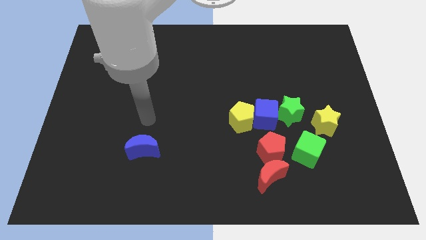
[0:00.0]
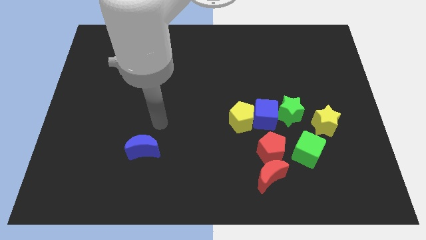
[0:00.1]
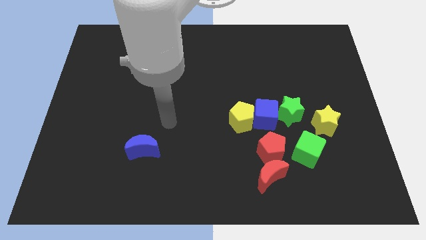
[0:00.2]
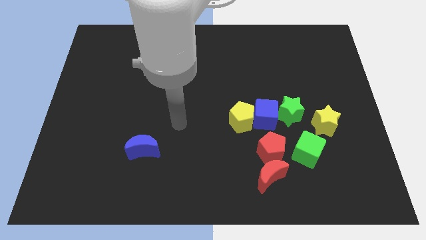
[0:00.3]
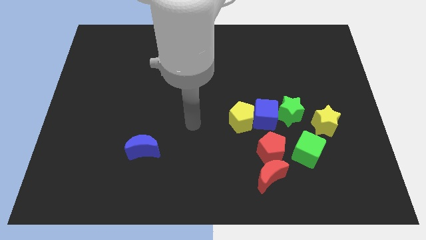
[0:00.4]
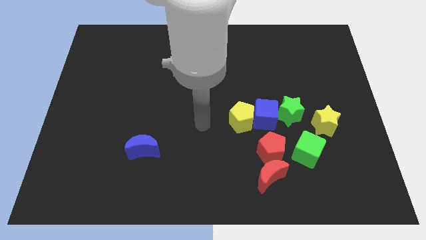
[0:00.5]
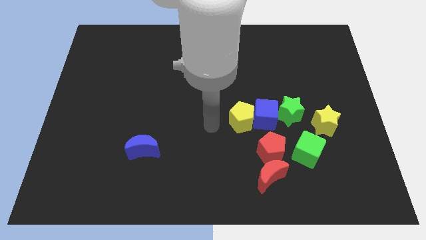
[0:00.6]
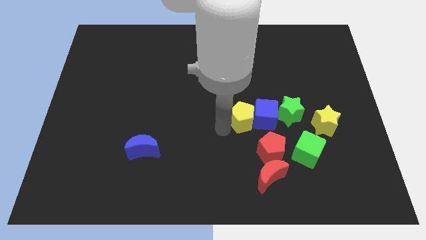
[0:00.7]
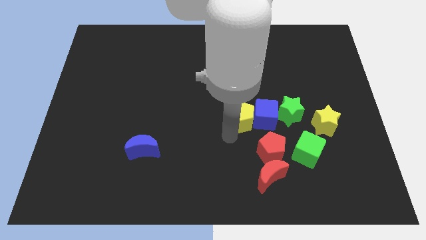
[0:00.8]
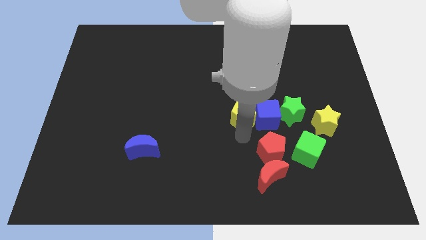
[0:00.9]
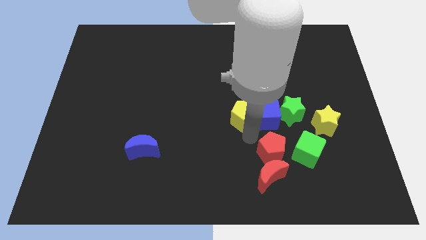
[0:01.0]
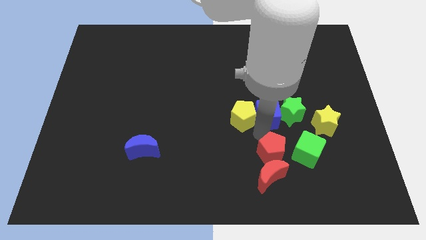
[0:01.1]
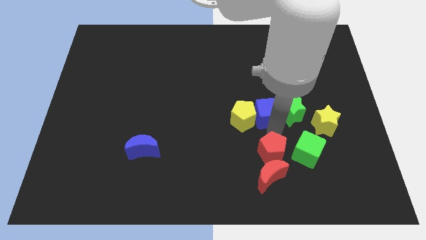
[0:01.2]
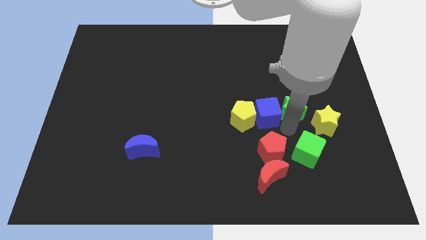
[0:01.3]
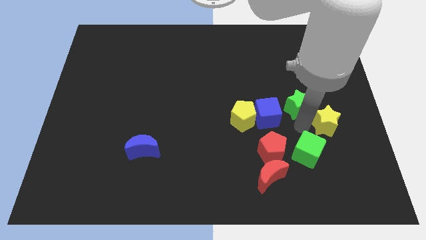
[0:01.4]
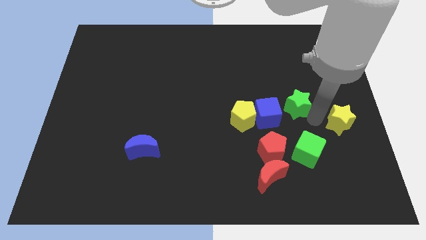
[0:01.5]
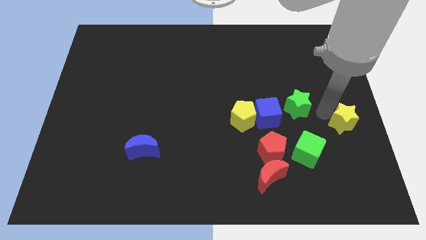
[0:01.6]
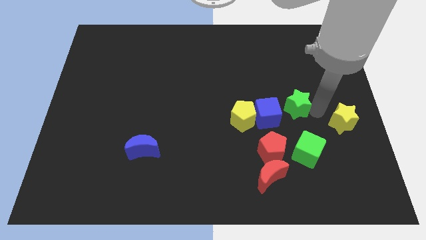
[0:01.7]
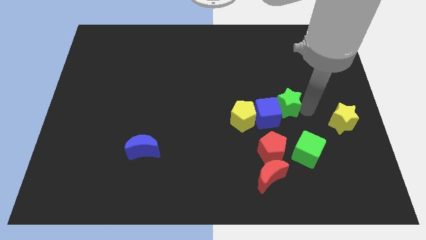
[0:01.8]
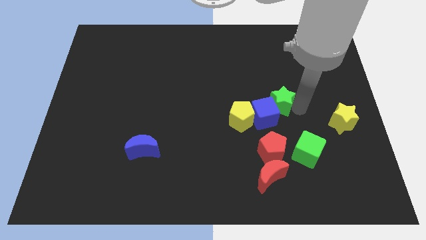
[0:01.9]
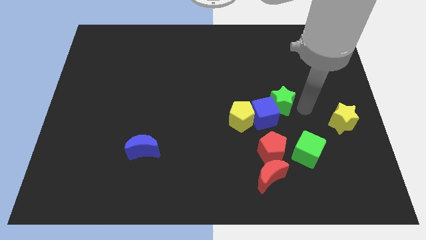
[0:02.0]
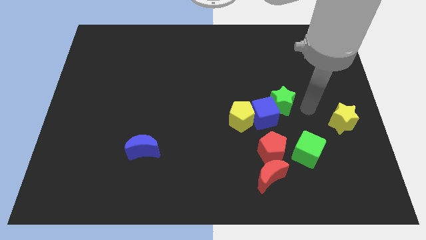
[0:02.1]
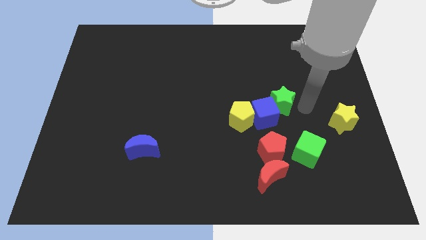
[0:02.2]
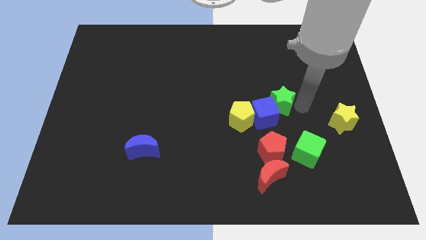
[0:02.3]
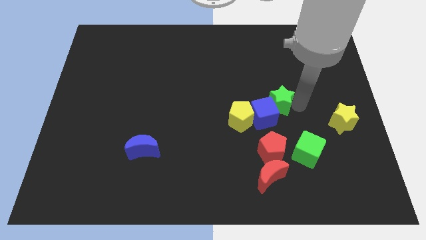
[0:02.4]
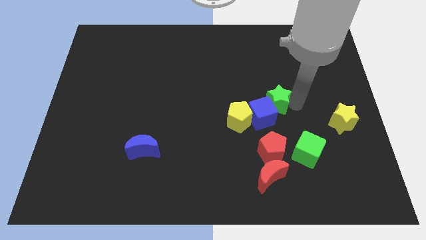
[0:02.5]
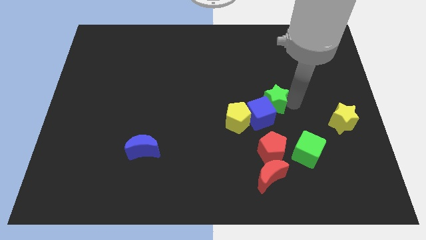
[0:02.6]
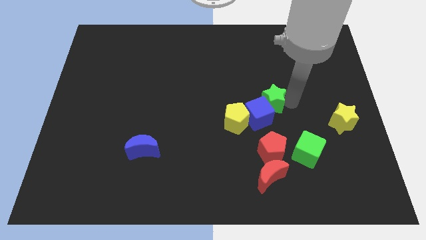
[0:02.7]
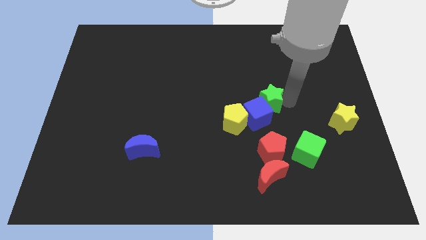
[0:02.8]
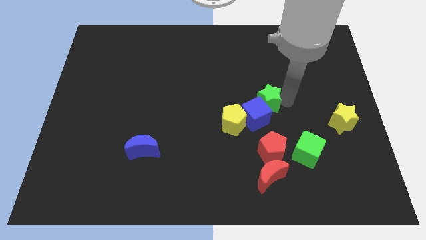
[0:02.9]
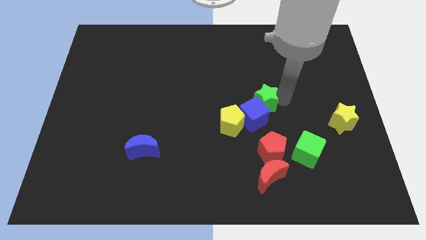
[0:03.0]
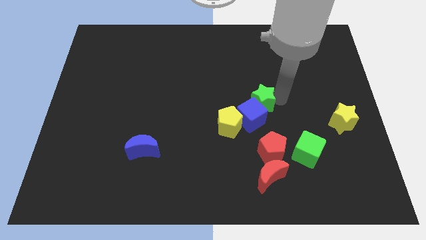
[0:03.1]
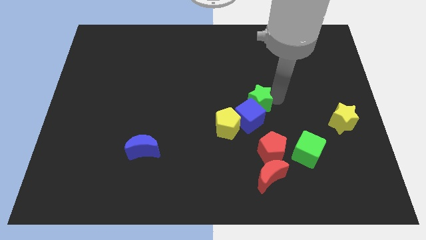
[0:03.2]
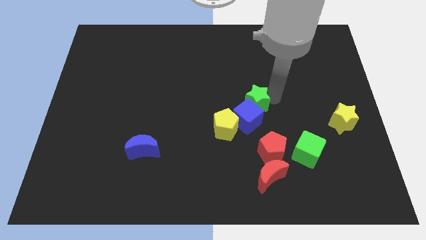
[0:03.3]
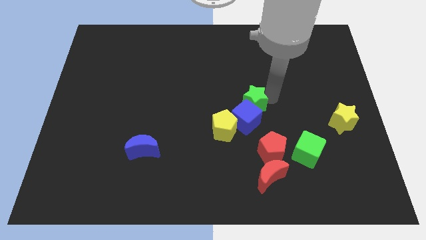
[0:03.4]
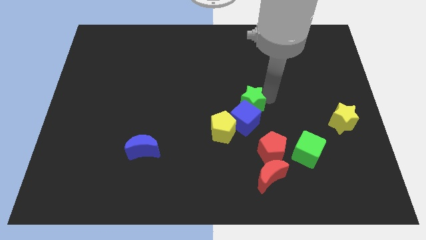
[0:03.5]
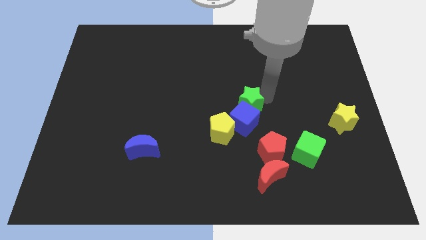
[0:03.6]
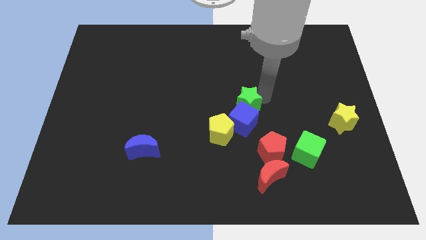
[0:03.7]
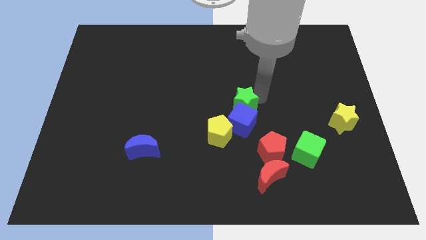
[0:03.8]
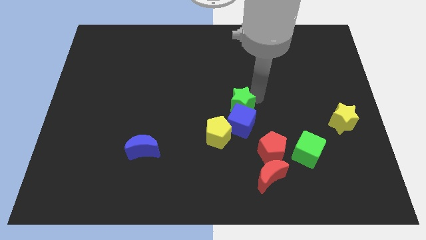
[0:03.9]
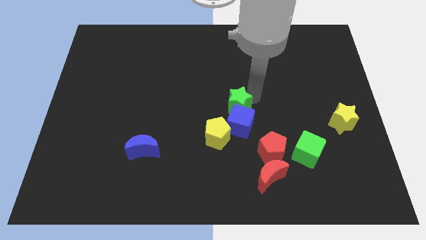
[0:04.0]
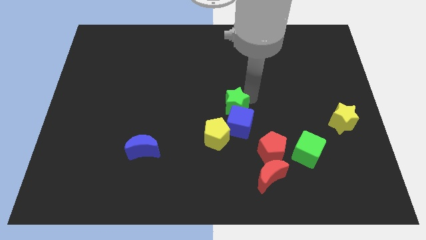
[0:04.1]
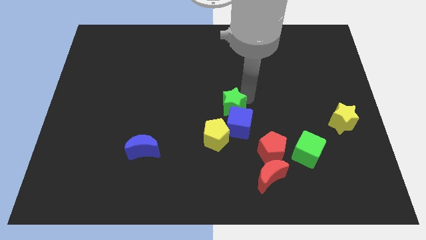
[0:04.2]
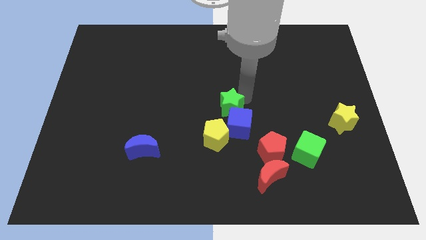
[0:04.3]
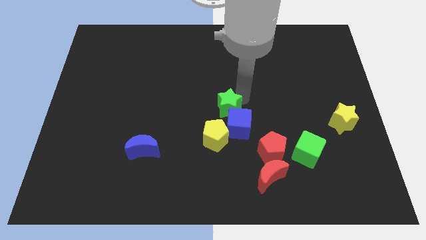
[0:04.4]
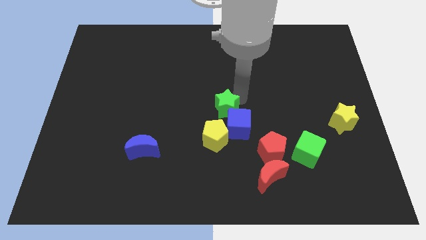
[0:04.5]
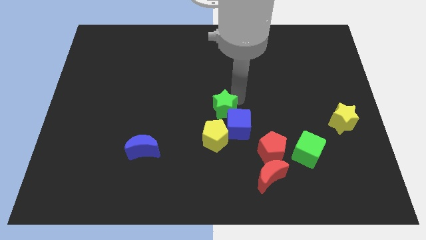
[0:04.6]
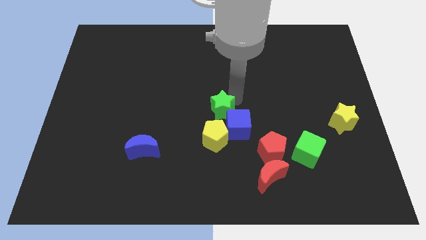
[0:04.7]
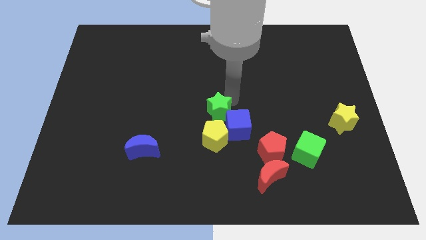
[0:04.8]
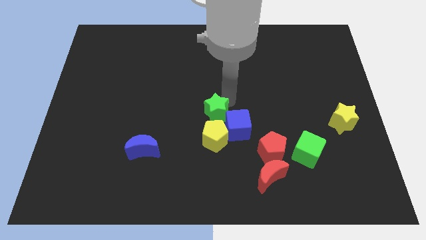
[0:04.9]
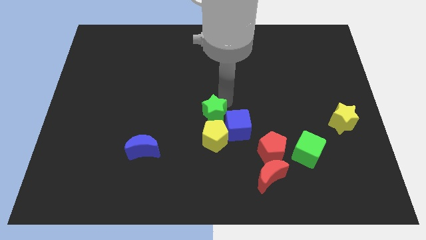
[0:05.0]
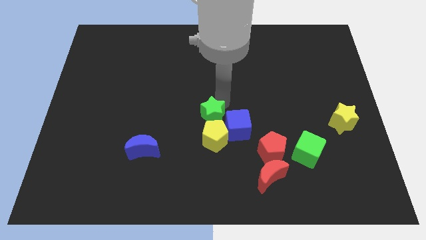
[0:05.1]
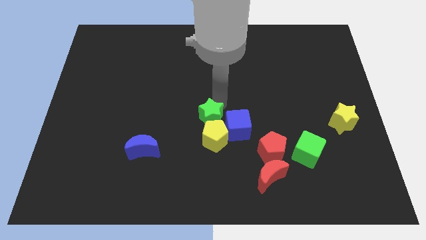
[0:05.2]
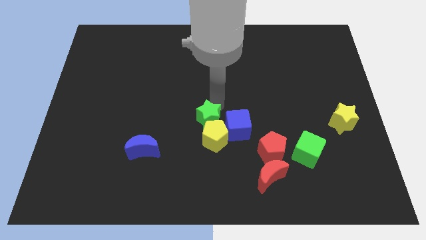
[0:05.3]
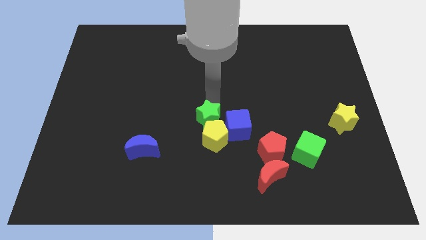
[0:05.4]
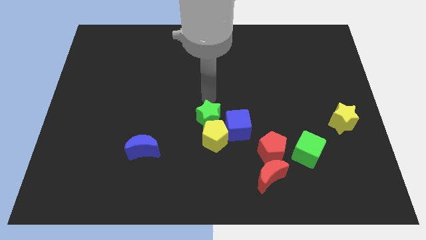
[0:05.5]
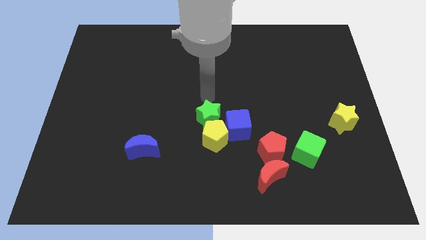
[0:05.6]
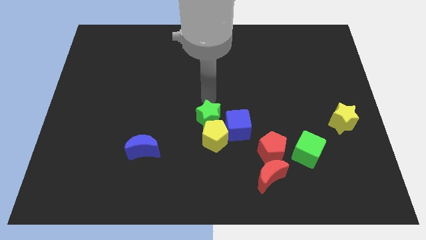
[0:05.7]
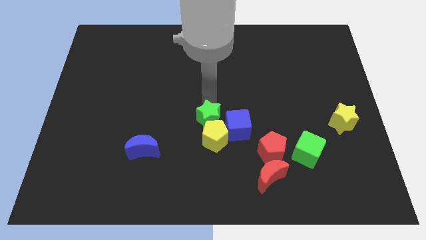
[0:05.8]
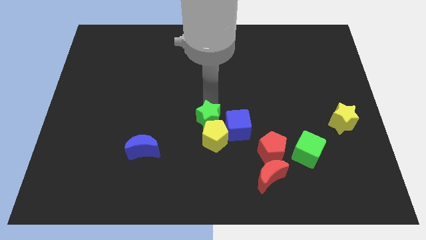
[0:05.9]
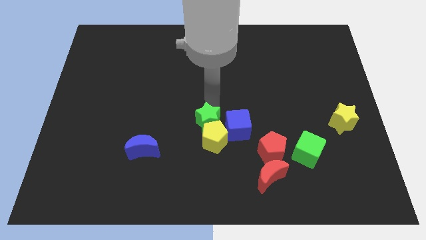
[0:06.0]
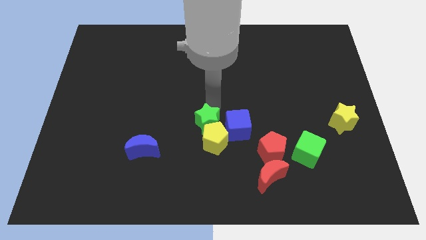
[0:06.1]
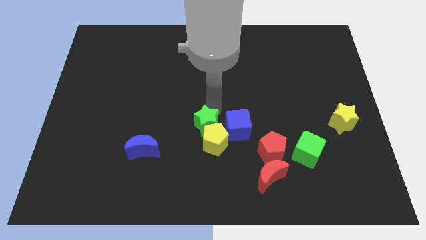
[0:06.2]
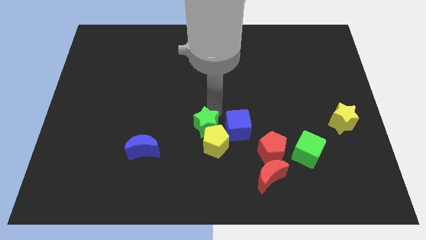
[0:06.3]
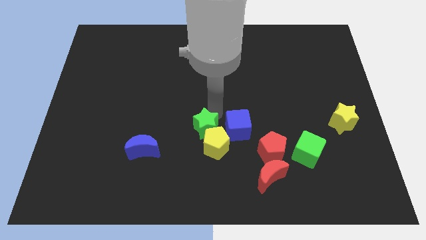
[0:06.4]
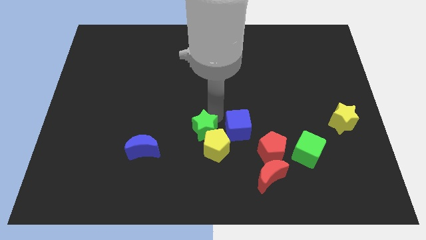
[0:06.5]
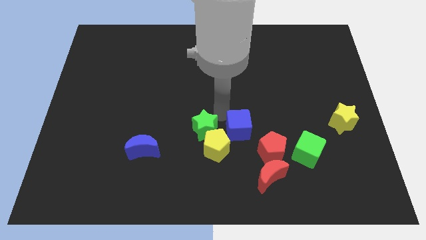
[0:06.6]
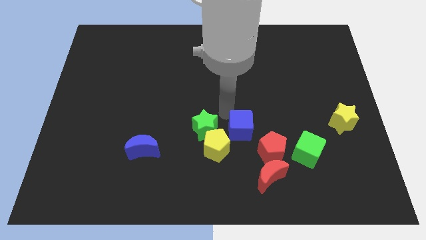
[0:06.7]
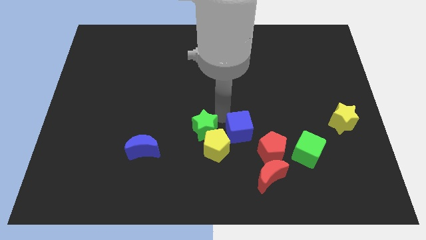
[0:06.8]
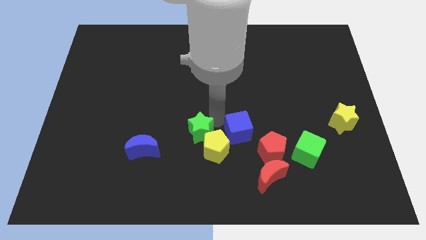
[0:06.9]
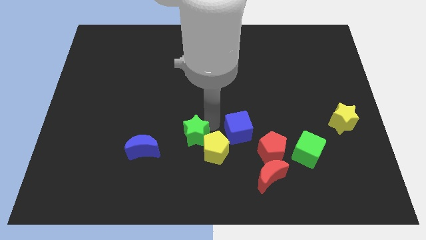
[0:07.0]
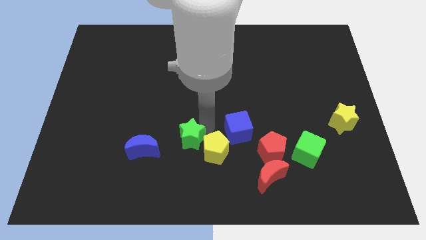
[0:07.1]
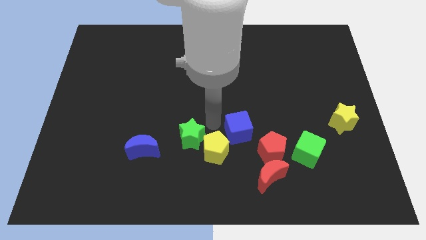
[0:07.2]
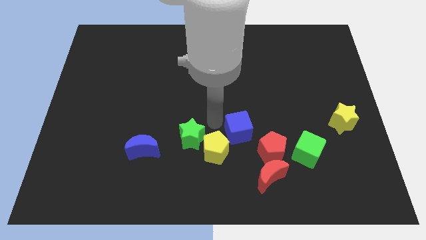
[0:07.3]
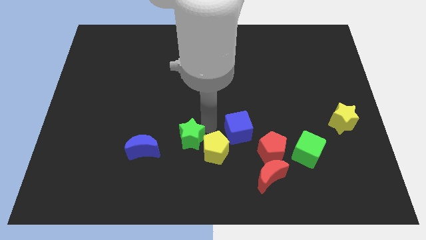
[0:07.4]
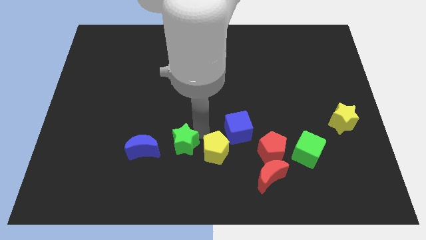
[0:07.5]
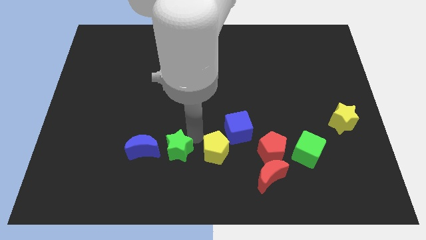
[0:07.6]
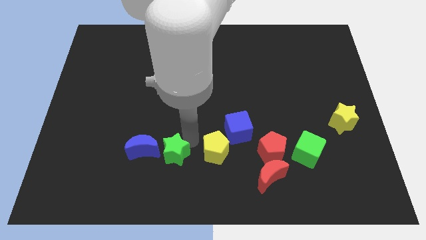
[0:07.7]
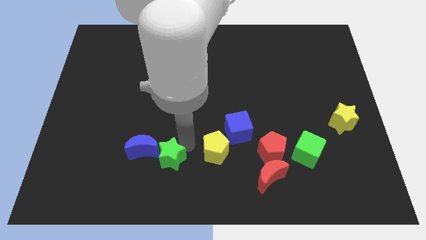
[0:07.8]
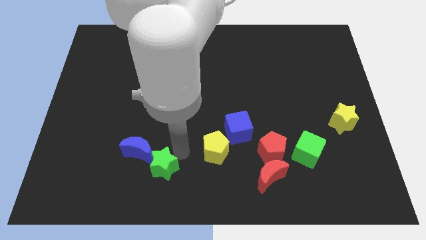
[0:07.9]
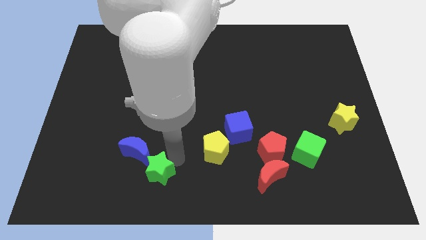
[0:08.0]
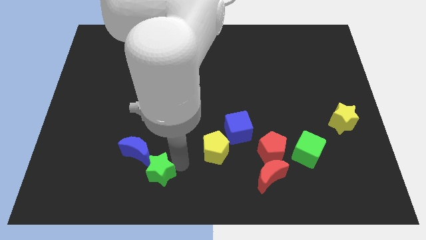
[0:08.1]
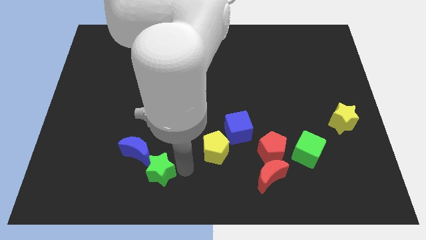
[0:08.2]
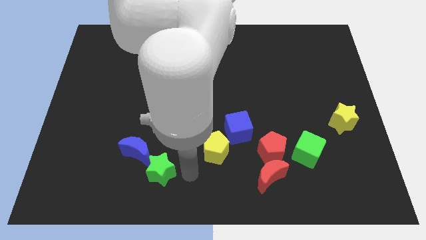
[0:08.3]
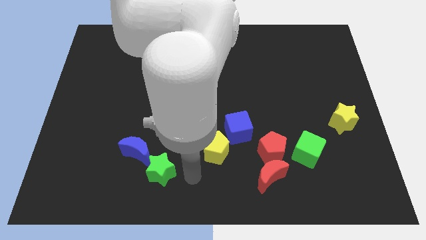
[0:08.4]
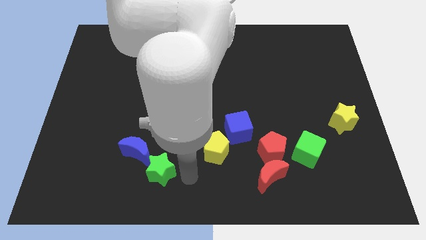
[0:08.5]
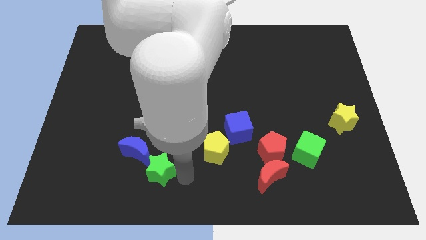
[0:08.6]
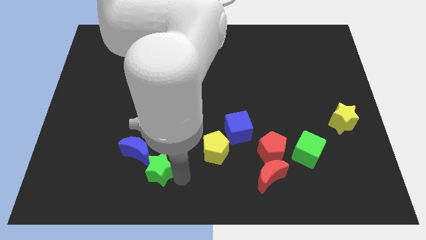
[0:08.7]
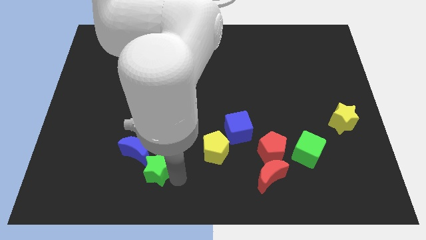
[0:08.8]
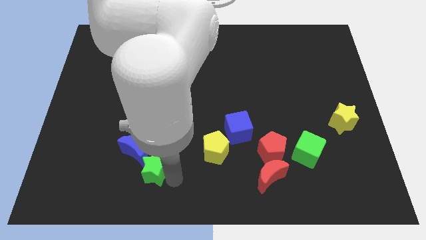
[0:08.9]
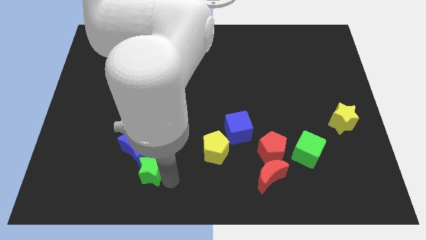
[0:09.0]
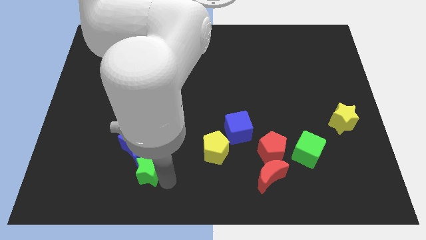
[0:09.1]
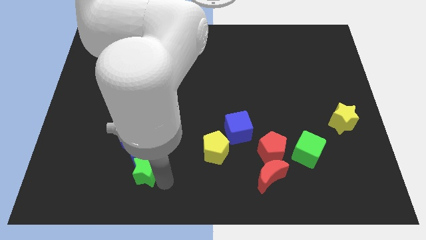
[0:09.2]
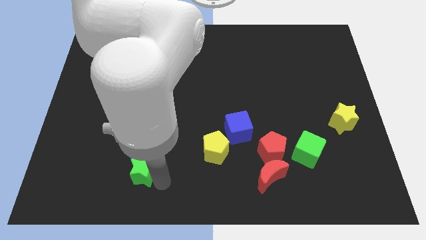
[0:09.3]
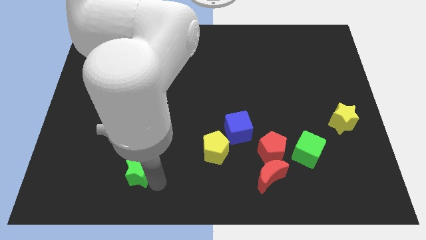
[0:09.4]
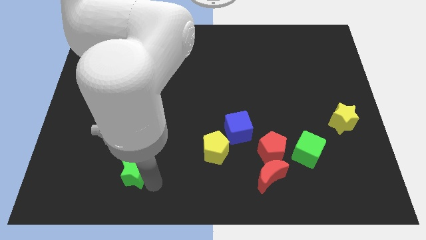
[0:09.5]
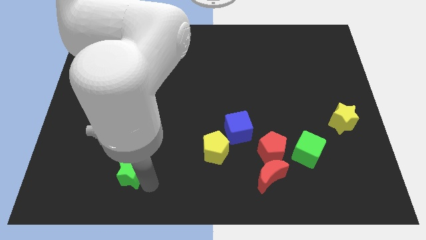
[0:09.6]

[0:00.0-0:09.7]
push the green star to the bottom left of the blue moon
